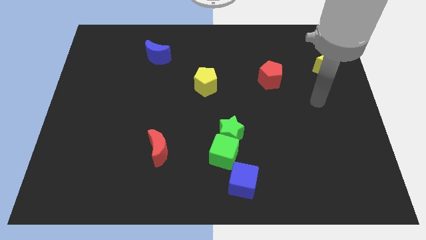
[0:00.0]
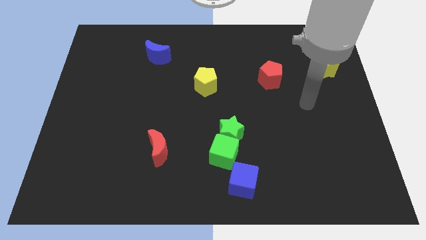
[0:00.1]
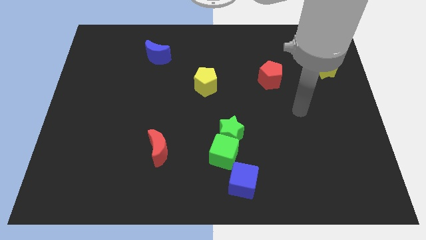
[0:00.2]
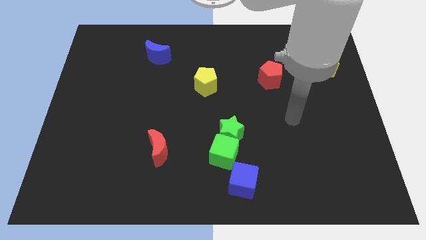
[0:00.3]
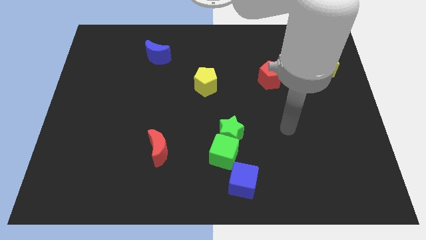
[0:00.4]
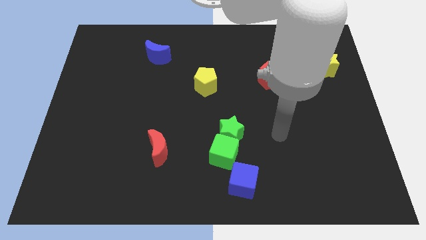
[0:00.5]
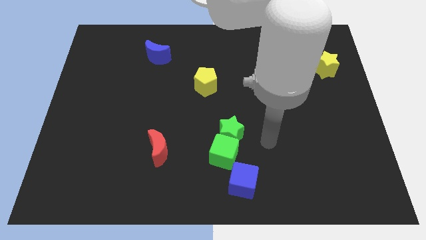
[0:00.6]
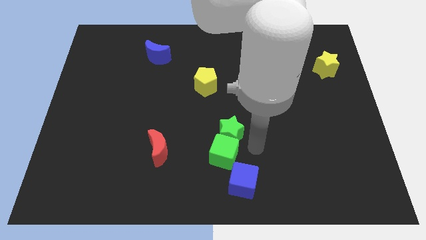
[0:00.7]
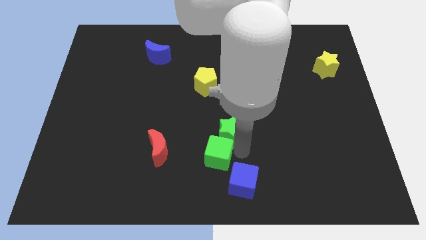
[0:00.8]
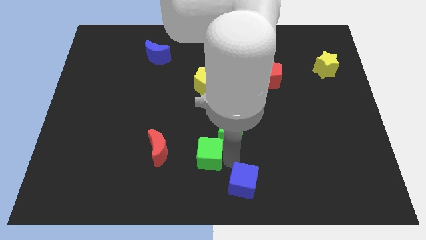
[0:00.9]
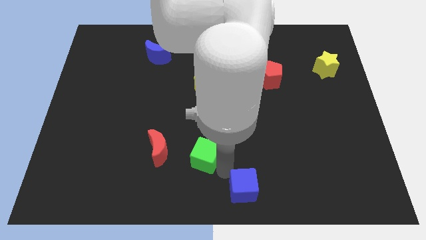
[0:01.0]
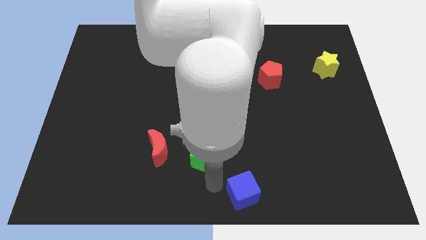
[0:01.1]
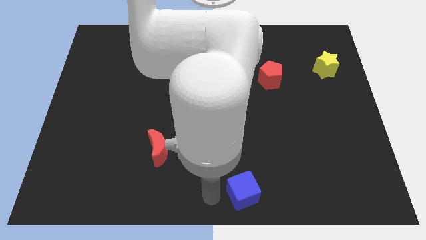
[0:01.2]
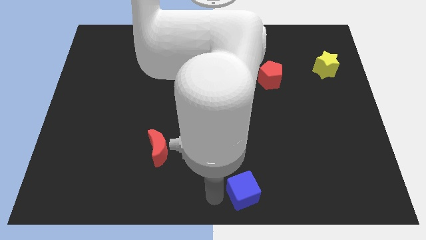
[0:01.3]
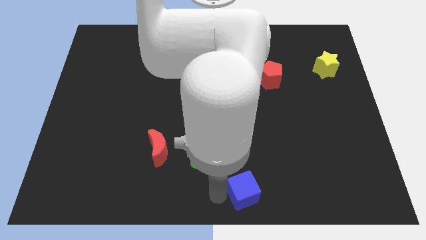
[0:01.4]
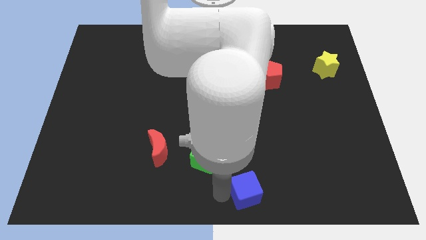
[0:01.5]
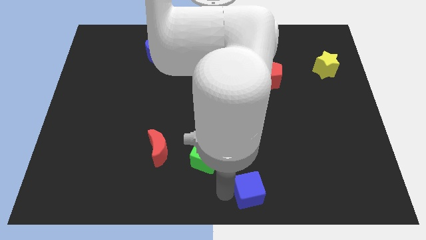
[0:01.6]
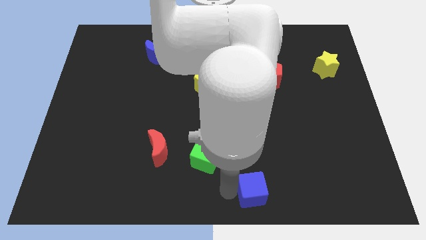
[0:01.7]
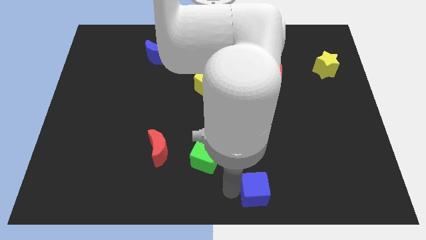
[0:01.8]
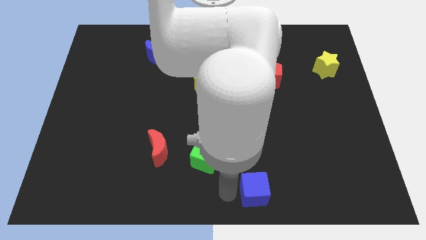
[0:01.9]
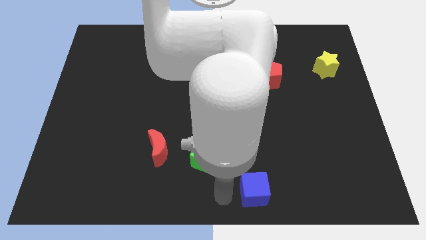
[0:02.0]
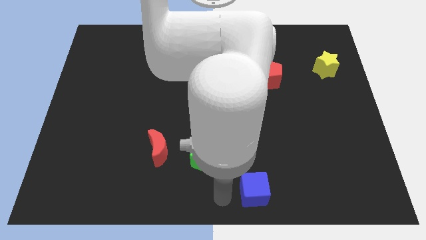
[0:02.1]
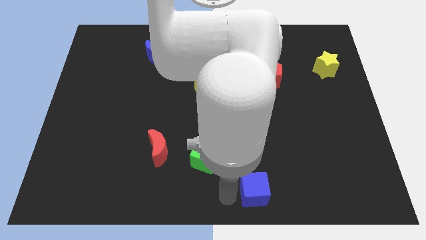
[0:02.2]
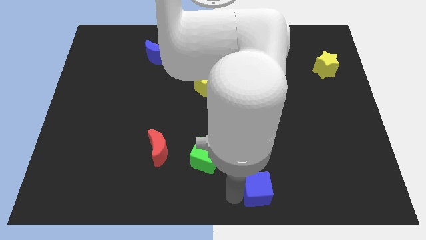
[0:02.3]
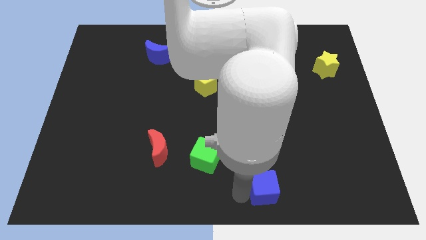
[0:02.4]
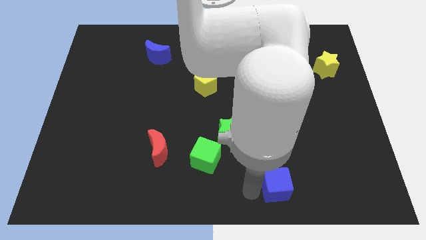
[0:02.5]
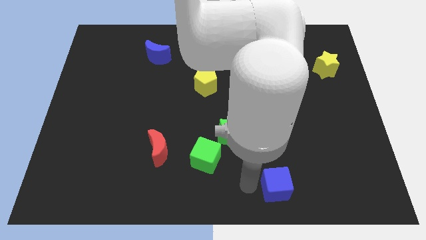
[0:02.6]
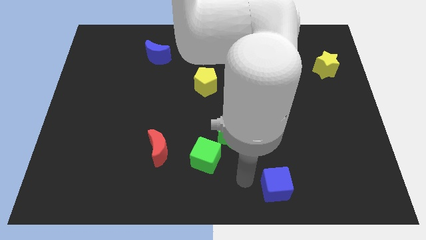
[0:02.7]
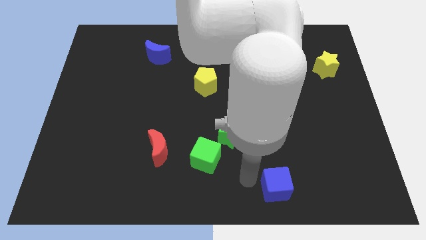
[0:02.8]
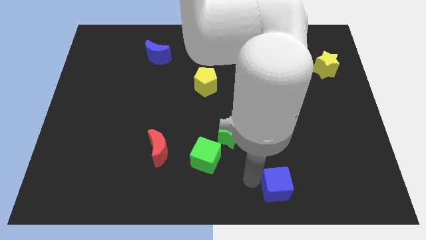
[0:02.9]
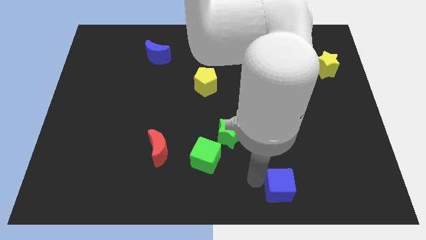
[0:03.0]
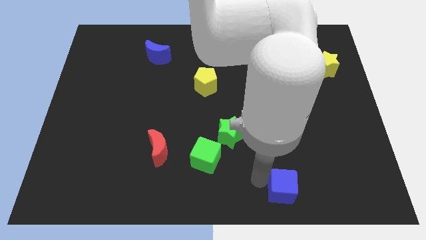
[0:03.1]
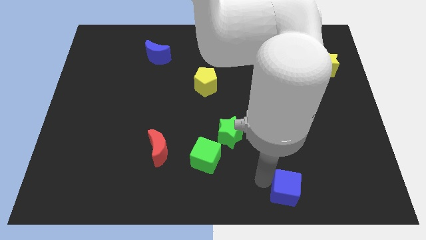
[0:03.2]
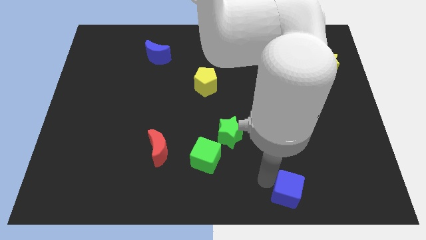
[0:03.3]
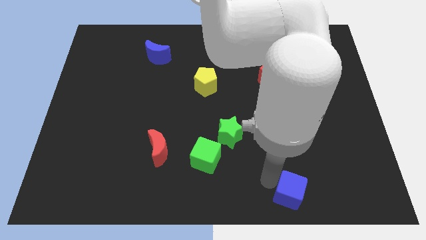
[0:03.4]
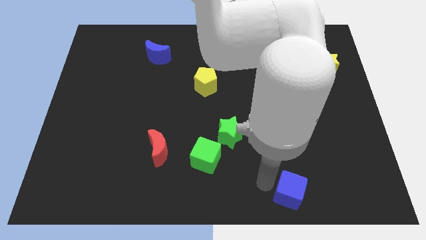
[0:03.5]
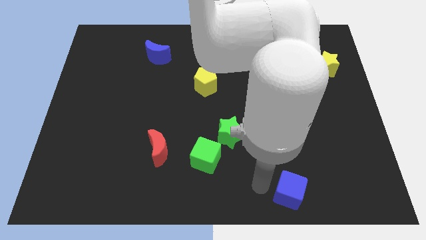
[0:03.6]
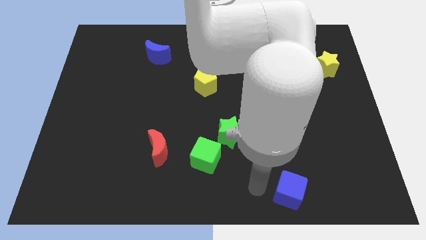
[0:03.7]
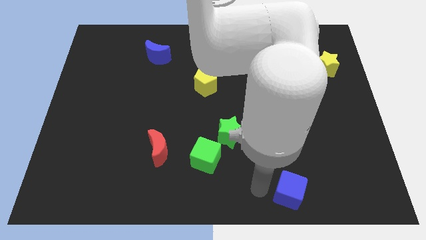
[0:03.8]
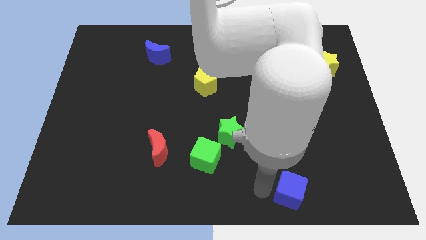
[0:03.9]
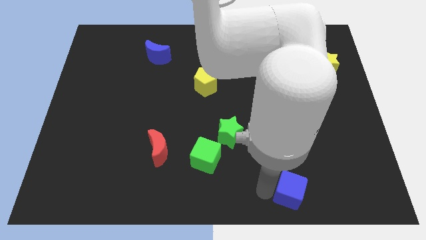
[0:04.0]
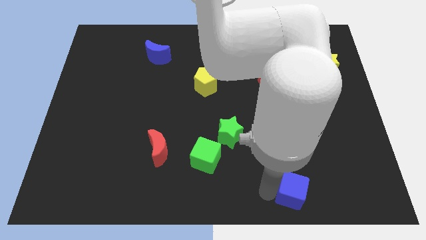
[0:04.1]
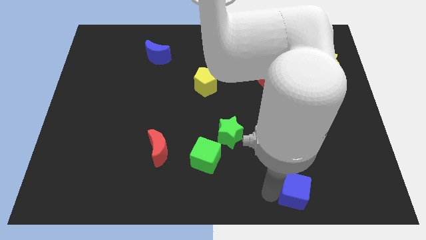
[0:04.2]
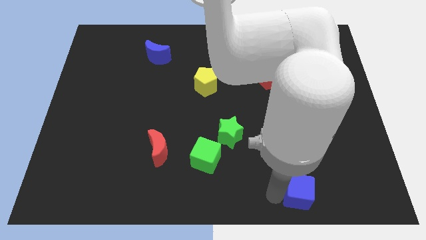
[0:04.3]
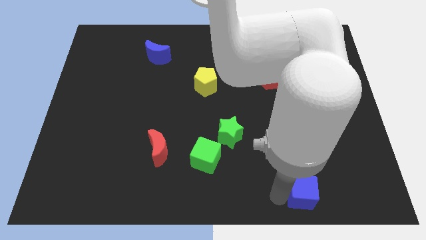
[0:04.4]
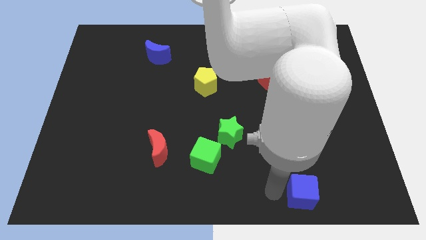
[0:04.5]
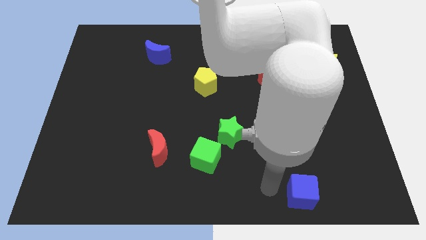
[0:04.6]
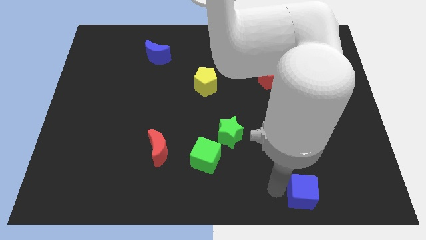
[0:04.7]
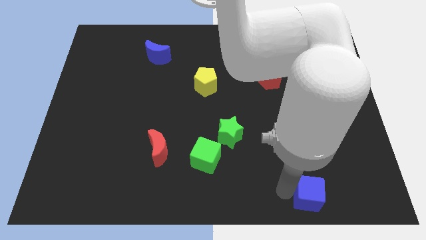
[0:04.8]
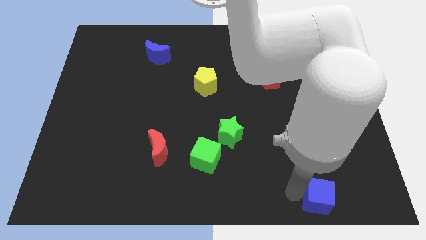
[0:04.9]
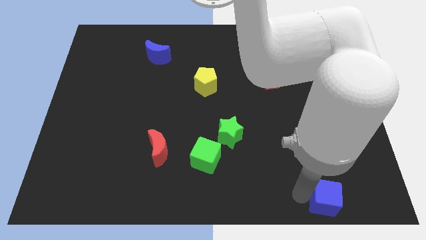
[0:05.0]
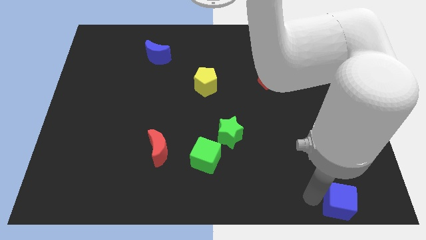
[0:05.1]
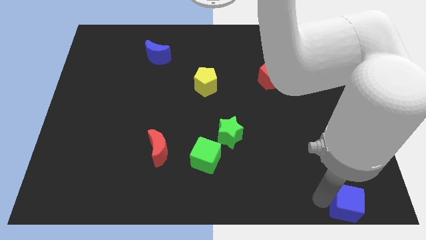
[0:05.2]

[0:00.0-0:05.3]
push the blue cube to the lower right corner

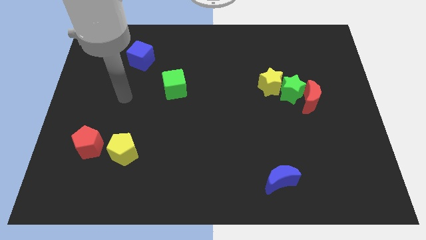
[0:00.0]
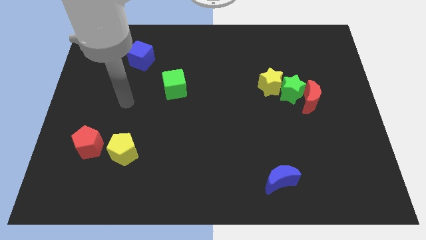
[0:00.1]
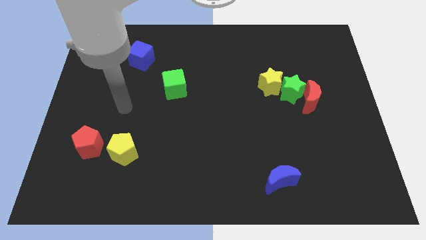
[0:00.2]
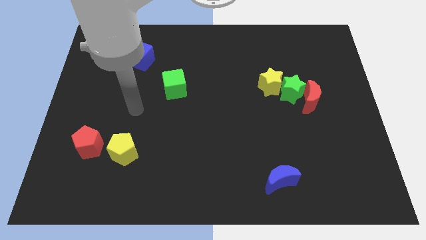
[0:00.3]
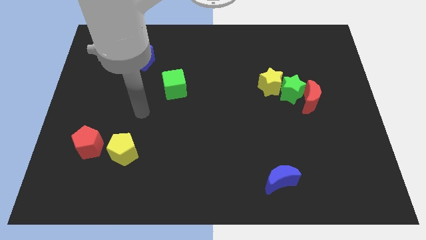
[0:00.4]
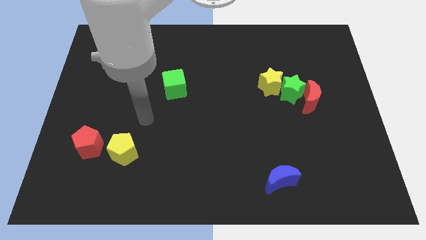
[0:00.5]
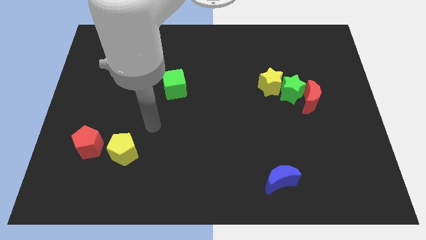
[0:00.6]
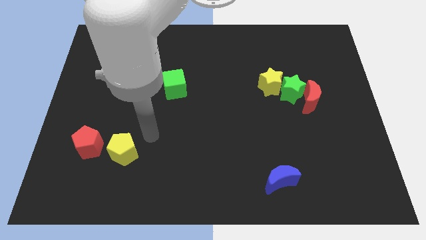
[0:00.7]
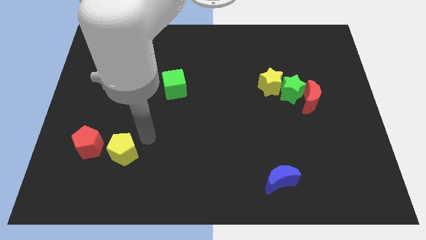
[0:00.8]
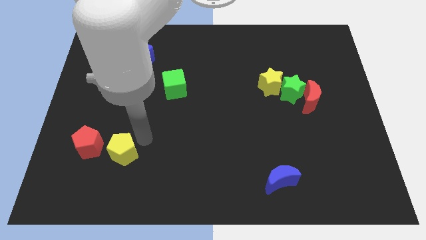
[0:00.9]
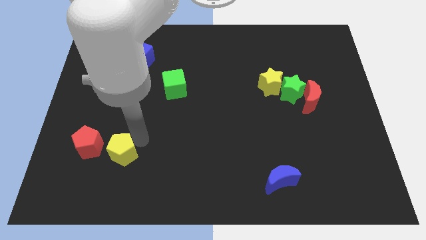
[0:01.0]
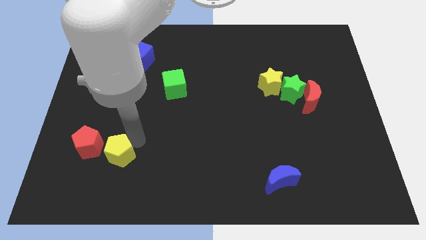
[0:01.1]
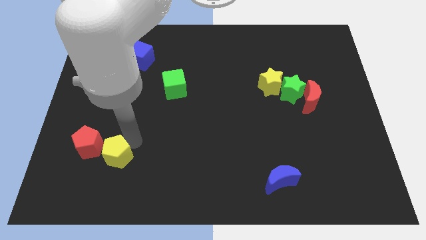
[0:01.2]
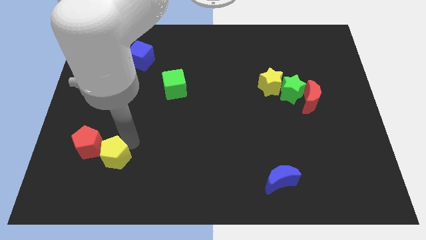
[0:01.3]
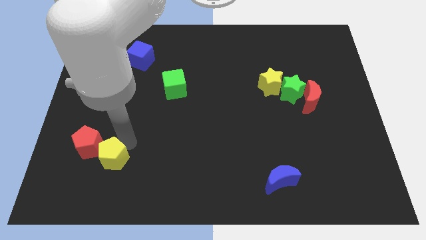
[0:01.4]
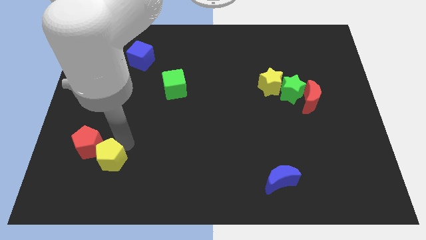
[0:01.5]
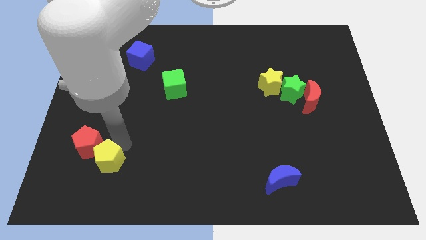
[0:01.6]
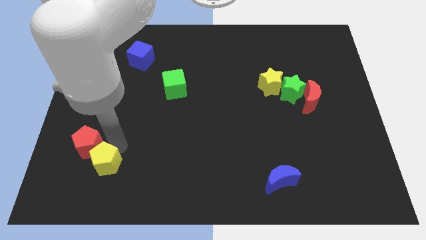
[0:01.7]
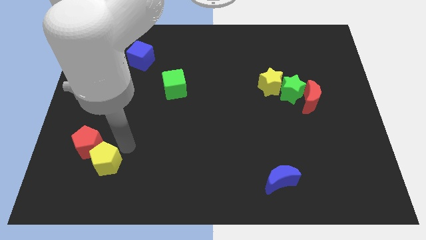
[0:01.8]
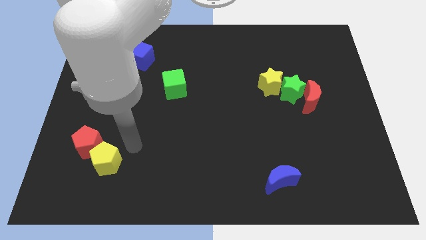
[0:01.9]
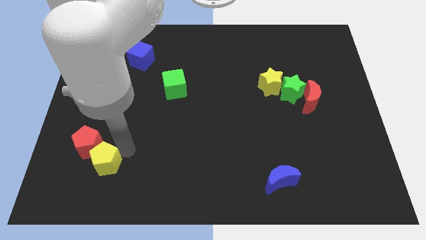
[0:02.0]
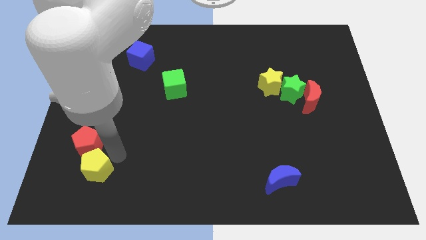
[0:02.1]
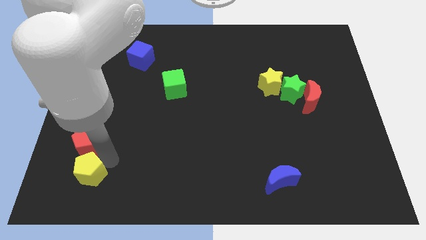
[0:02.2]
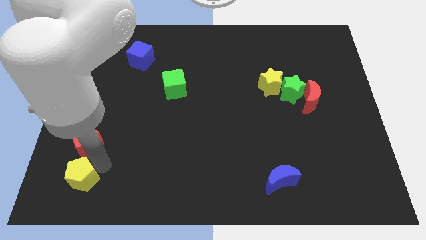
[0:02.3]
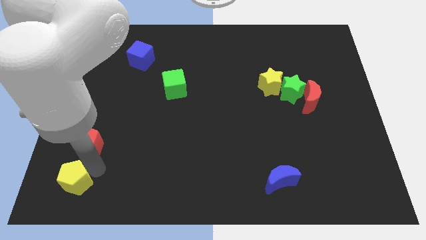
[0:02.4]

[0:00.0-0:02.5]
put the yellow pentagon to the bottom left corner
